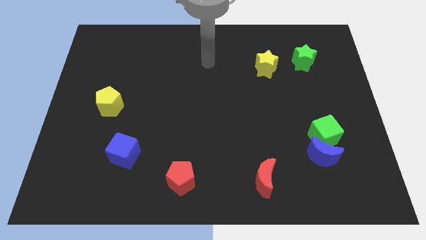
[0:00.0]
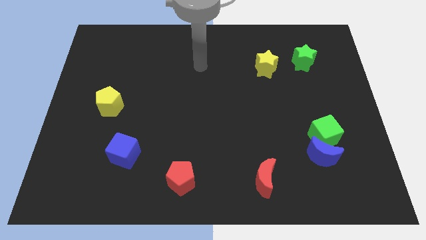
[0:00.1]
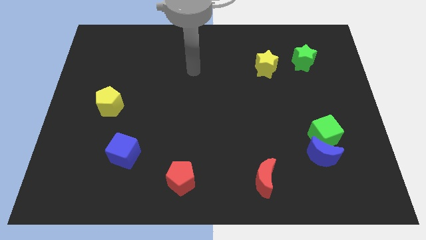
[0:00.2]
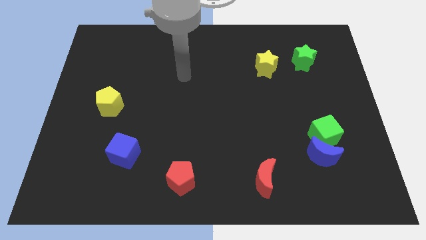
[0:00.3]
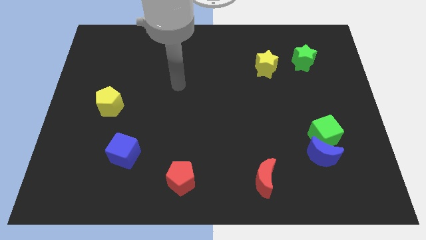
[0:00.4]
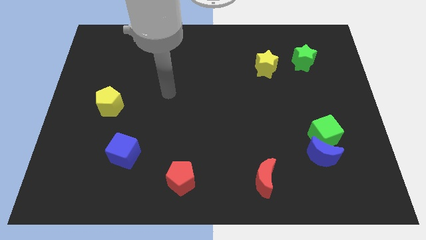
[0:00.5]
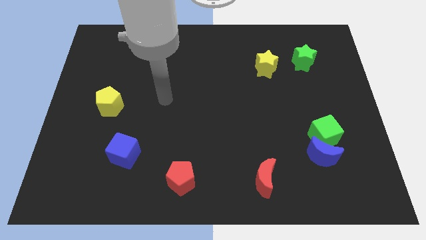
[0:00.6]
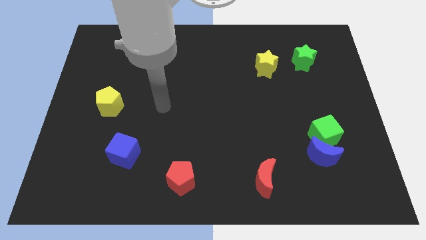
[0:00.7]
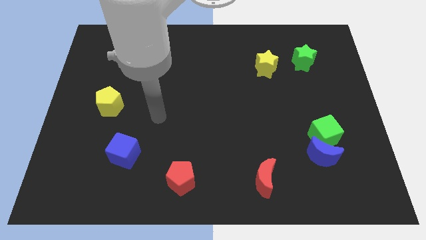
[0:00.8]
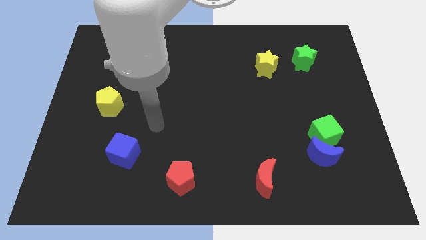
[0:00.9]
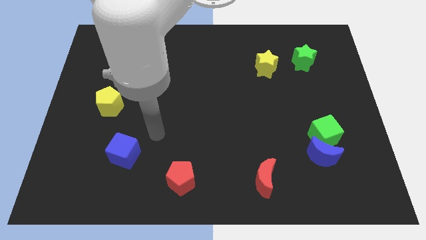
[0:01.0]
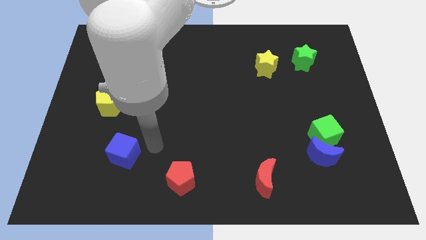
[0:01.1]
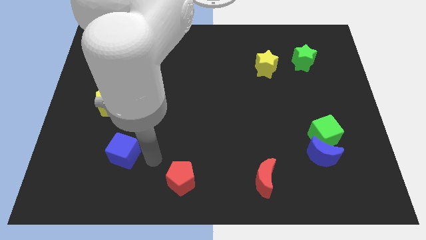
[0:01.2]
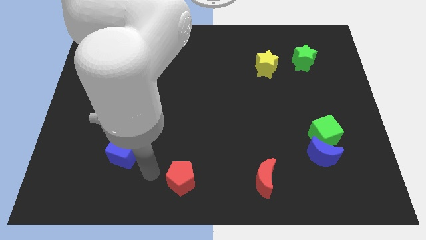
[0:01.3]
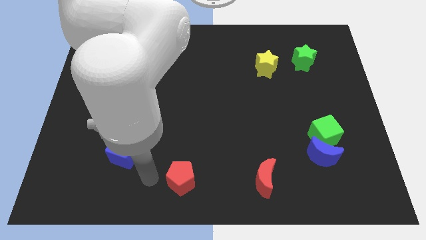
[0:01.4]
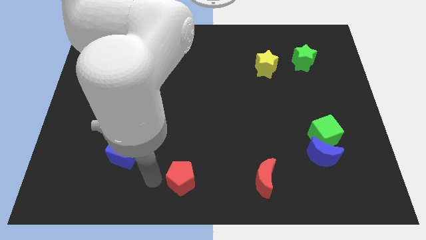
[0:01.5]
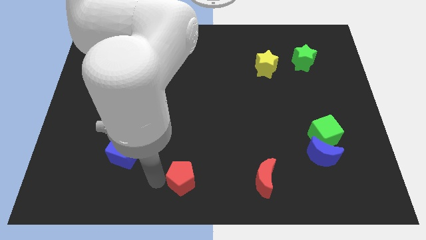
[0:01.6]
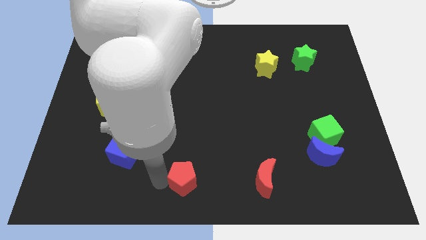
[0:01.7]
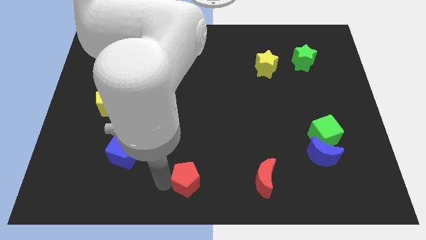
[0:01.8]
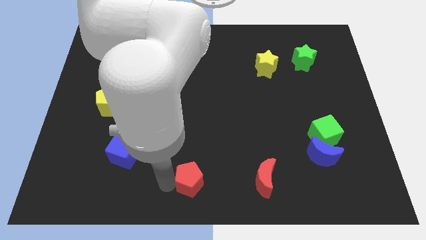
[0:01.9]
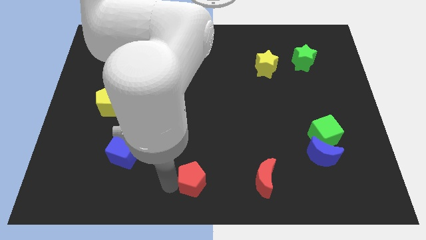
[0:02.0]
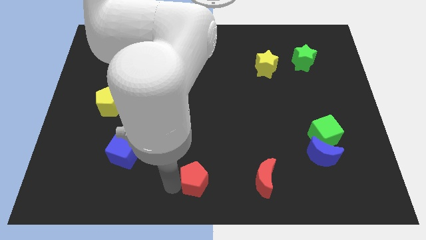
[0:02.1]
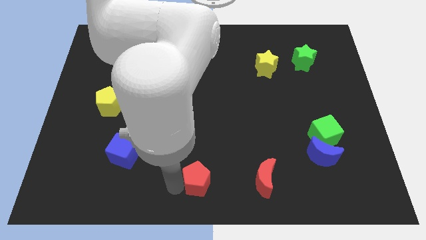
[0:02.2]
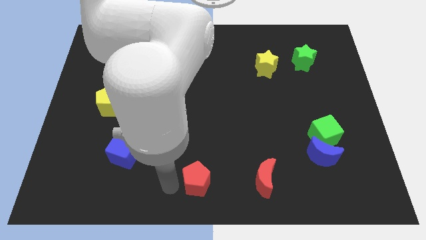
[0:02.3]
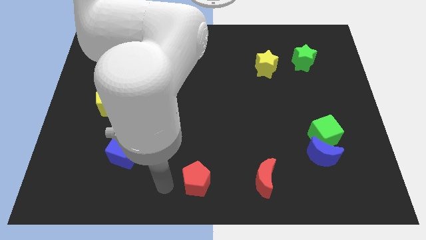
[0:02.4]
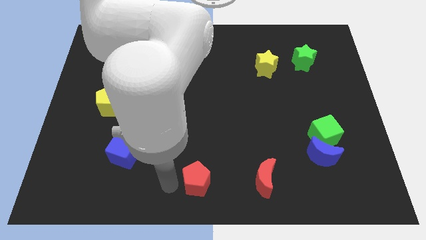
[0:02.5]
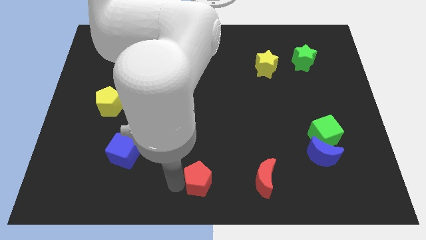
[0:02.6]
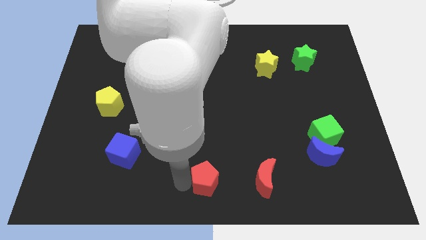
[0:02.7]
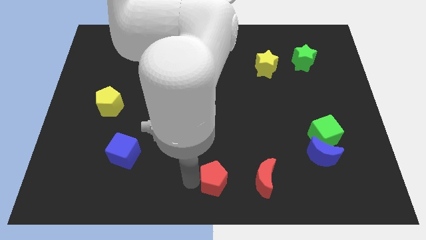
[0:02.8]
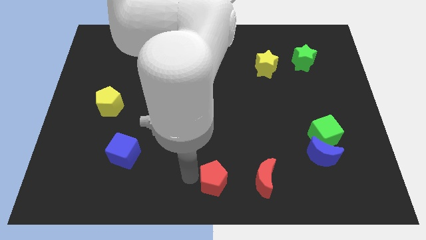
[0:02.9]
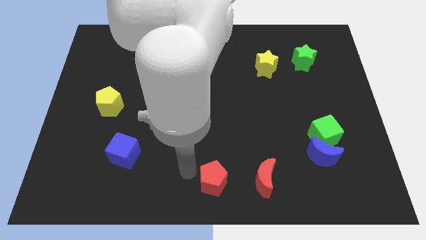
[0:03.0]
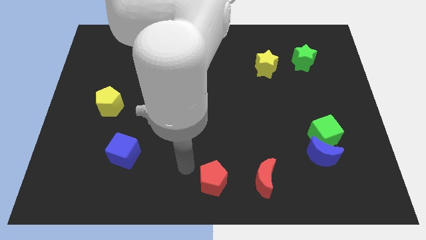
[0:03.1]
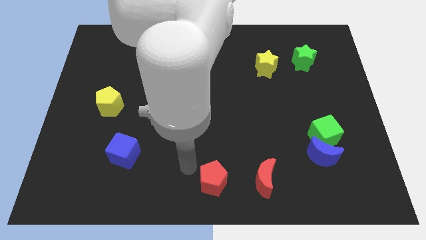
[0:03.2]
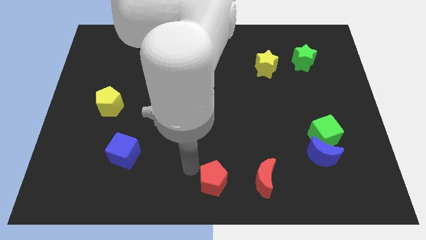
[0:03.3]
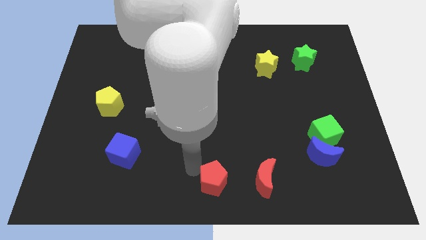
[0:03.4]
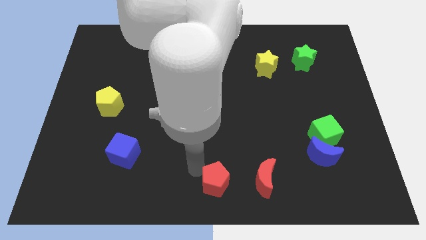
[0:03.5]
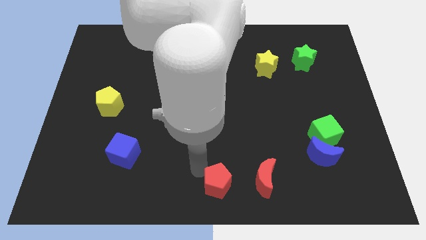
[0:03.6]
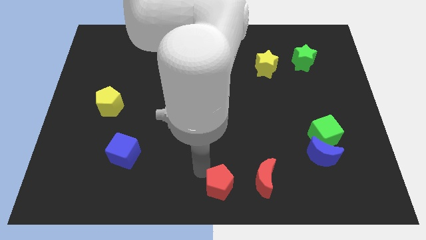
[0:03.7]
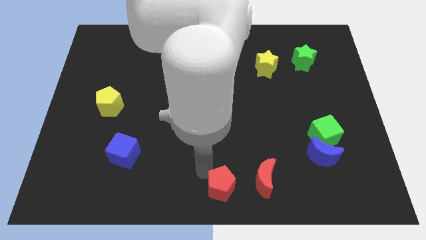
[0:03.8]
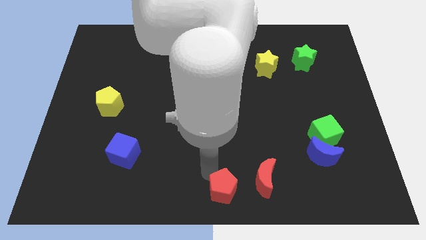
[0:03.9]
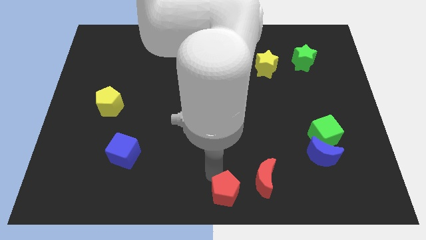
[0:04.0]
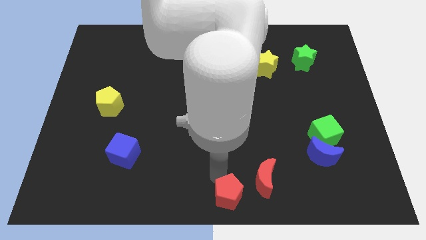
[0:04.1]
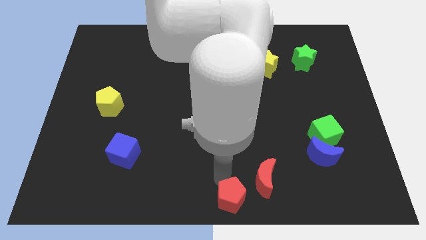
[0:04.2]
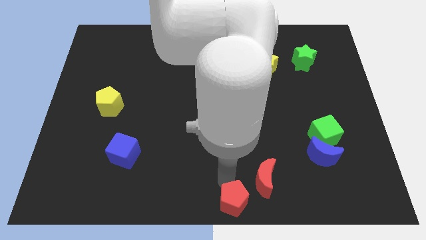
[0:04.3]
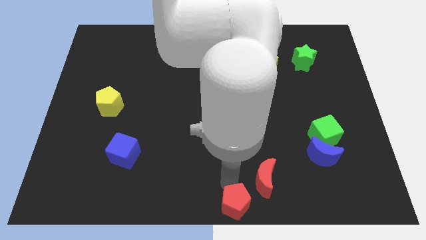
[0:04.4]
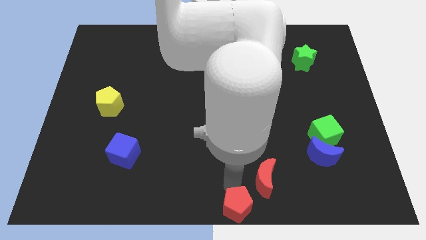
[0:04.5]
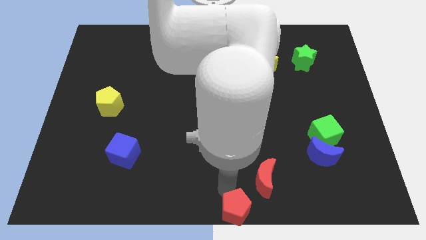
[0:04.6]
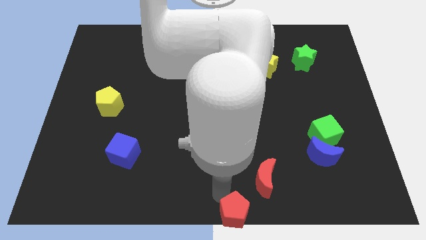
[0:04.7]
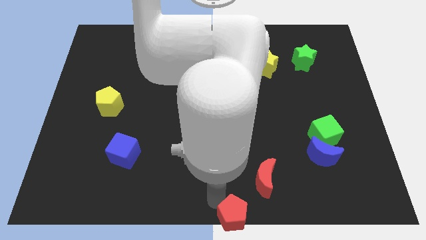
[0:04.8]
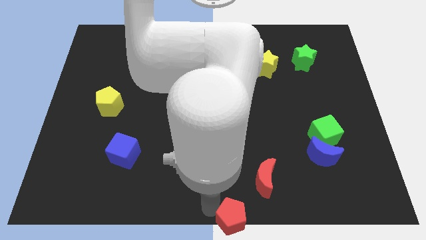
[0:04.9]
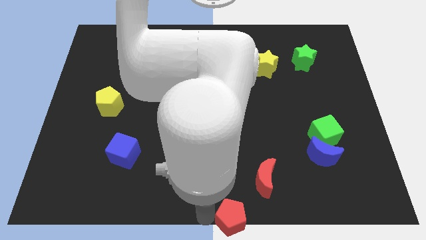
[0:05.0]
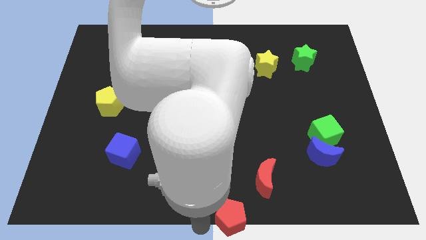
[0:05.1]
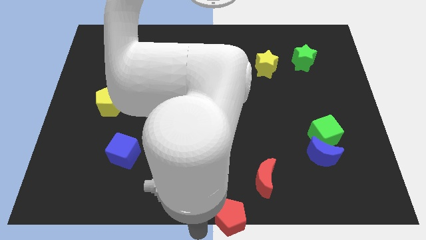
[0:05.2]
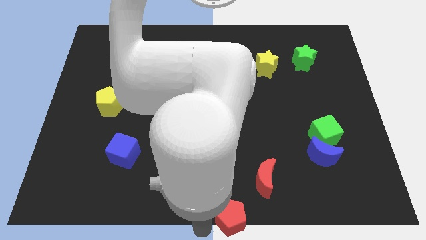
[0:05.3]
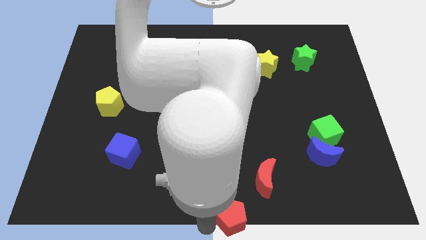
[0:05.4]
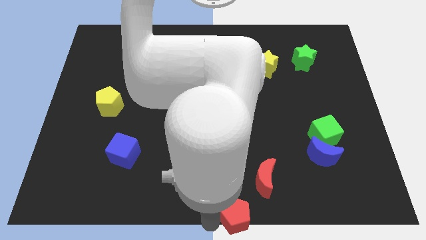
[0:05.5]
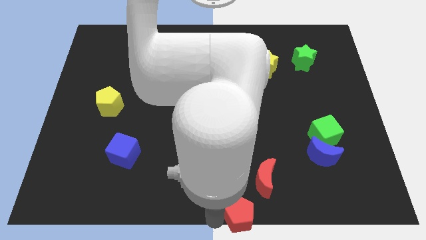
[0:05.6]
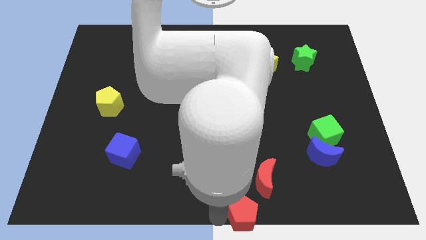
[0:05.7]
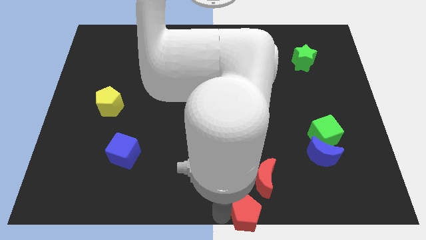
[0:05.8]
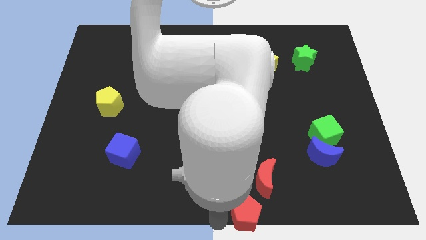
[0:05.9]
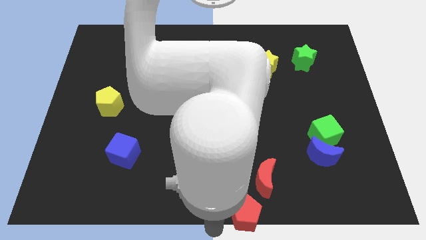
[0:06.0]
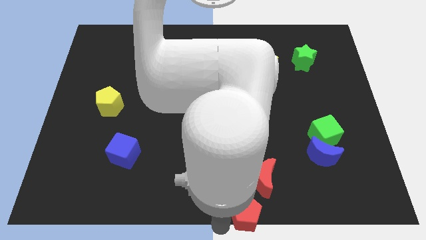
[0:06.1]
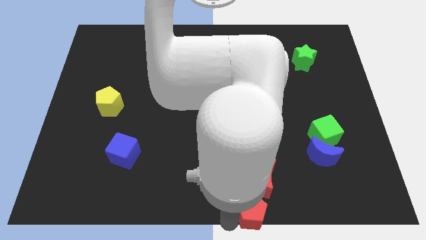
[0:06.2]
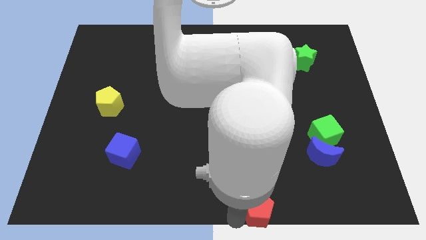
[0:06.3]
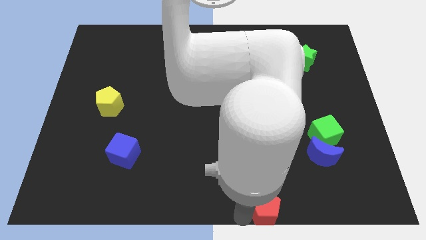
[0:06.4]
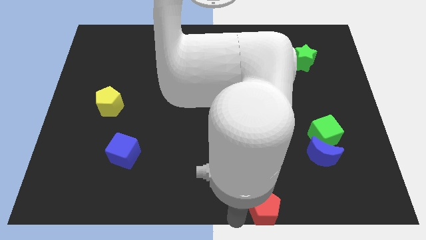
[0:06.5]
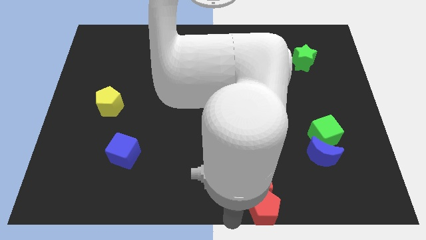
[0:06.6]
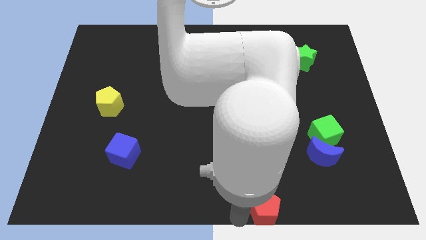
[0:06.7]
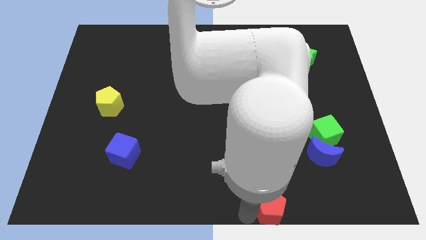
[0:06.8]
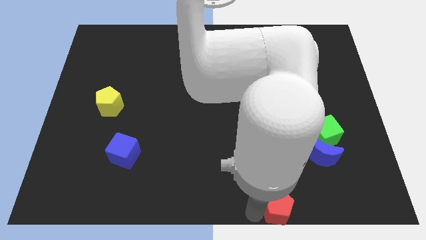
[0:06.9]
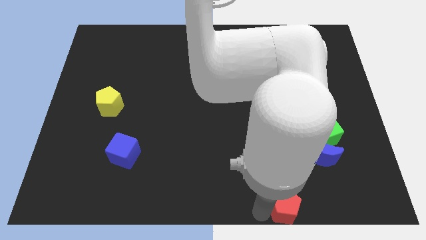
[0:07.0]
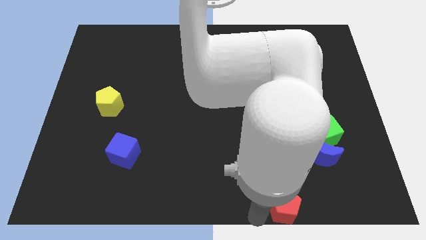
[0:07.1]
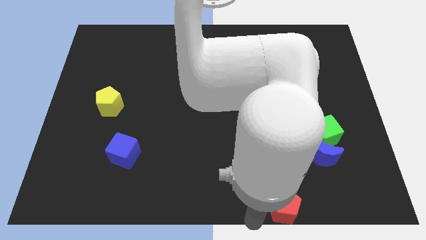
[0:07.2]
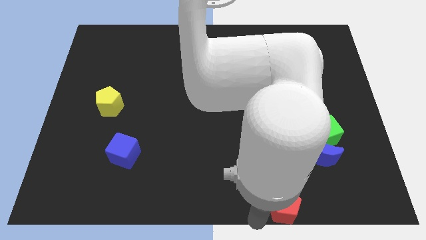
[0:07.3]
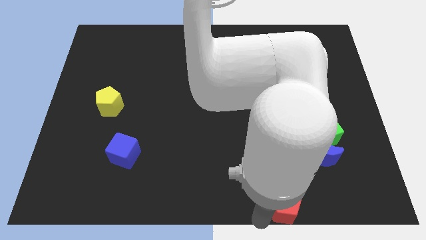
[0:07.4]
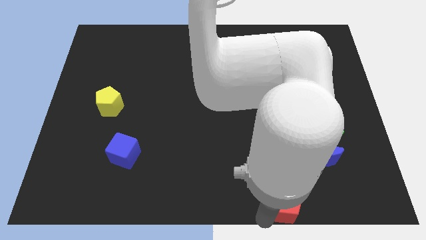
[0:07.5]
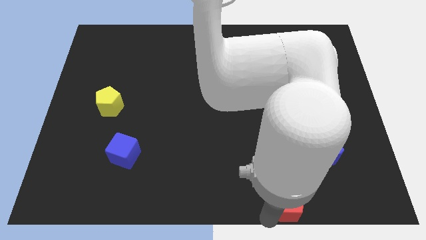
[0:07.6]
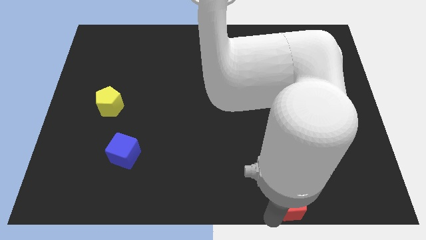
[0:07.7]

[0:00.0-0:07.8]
push the red pentagon to the right
